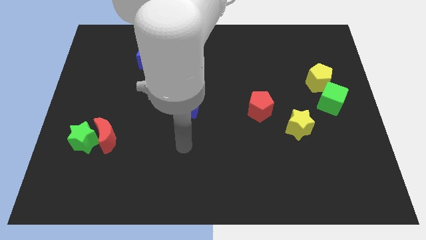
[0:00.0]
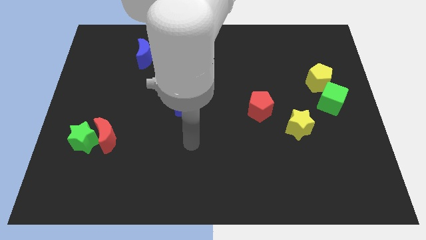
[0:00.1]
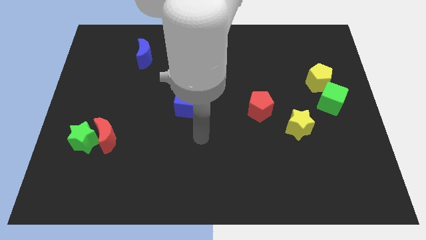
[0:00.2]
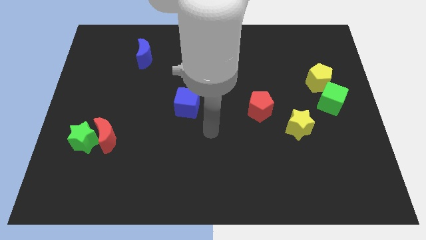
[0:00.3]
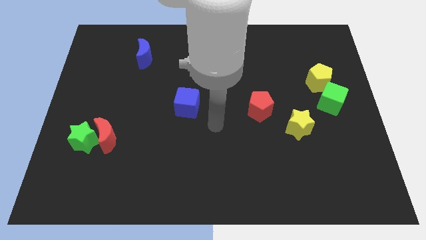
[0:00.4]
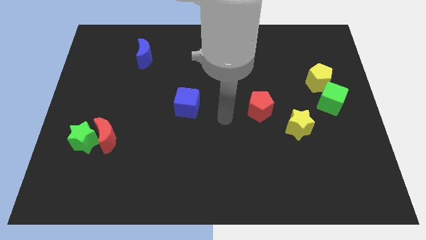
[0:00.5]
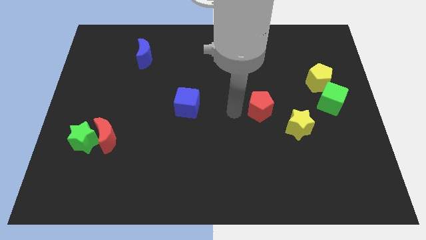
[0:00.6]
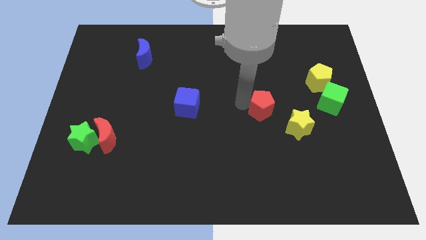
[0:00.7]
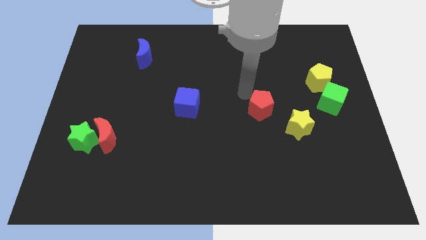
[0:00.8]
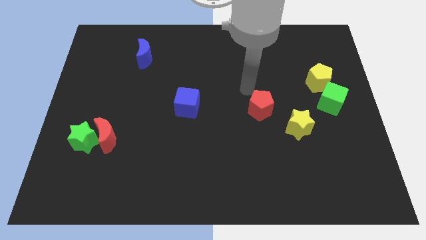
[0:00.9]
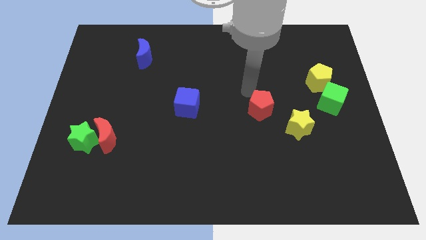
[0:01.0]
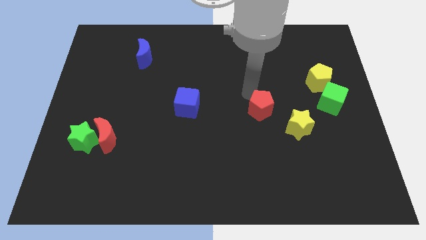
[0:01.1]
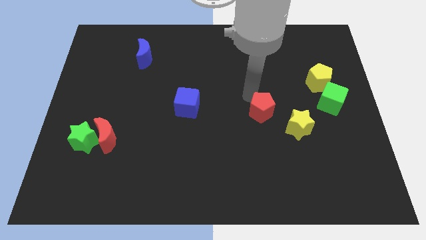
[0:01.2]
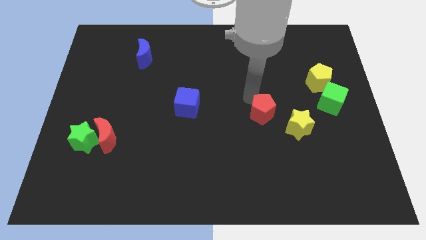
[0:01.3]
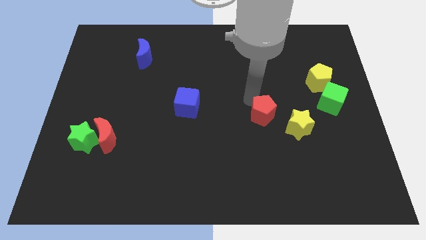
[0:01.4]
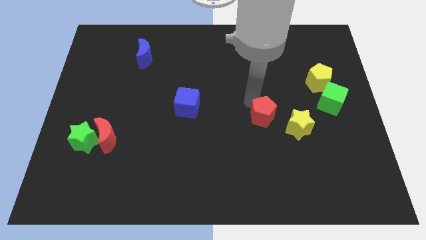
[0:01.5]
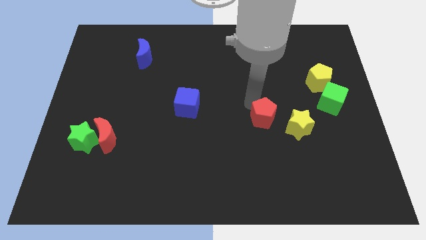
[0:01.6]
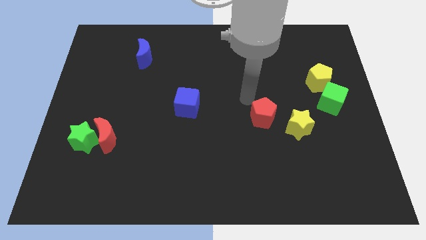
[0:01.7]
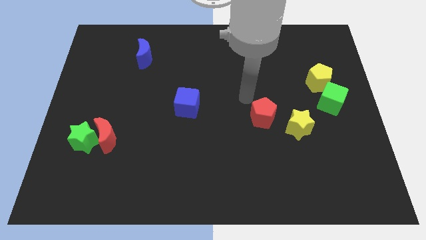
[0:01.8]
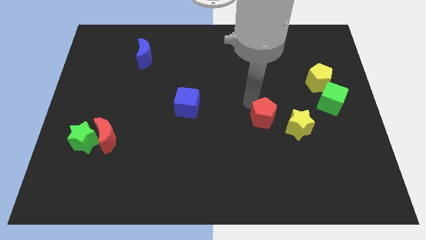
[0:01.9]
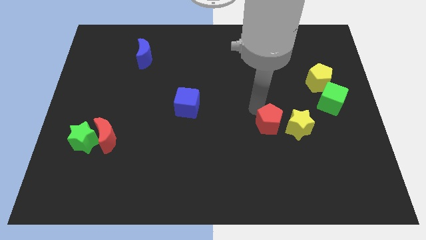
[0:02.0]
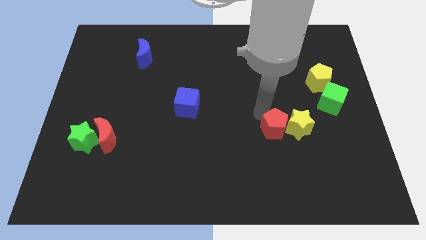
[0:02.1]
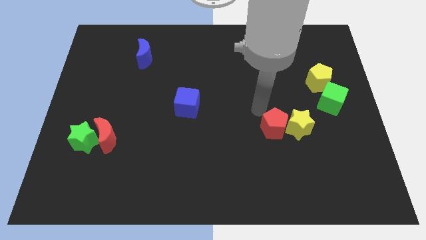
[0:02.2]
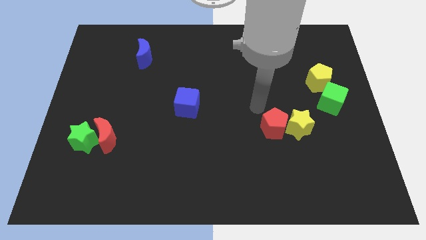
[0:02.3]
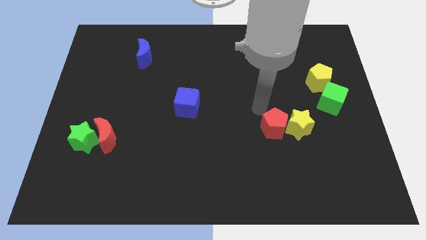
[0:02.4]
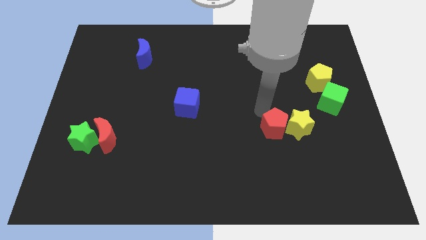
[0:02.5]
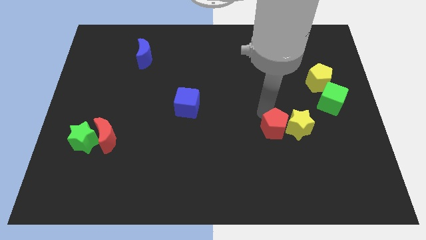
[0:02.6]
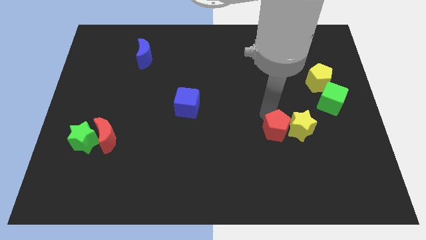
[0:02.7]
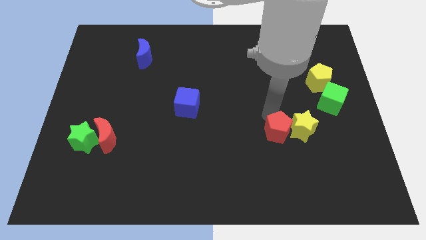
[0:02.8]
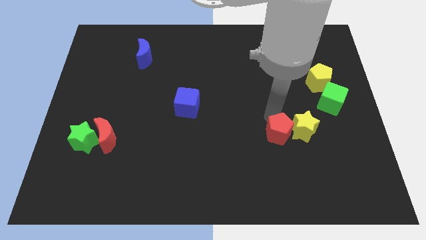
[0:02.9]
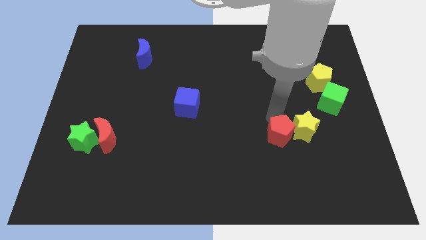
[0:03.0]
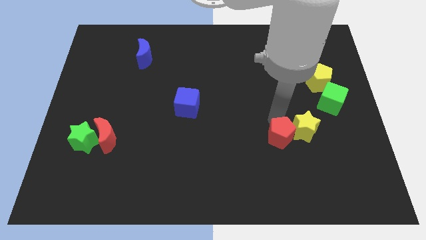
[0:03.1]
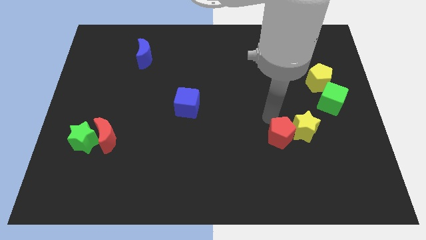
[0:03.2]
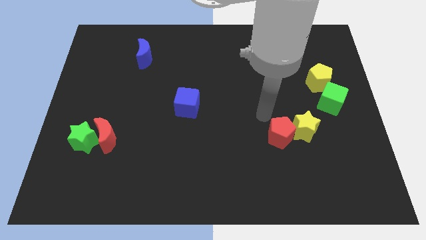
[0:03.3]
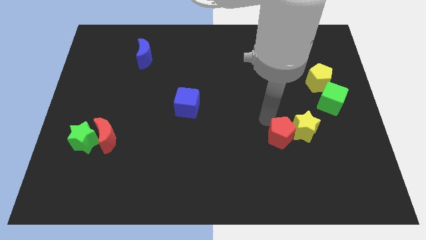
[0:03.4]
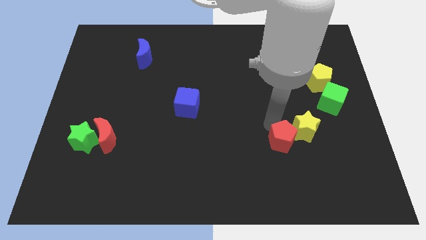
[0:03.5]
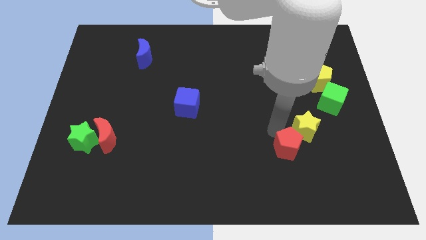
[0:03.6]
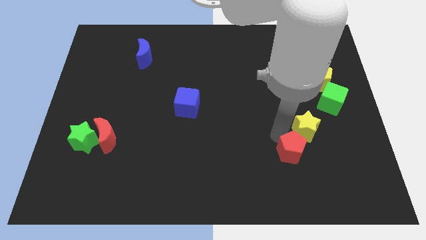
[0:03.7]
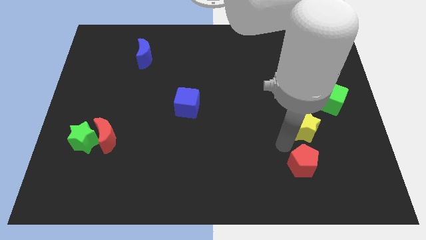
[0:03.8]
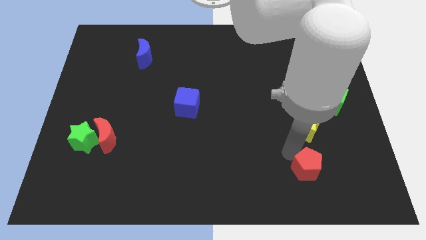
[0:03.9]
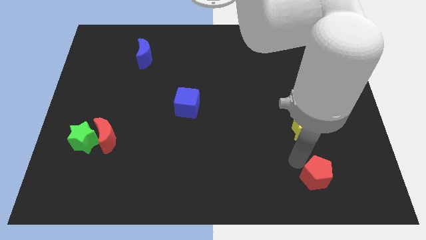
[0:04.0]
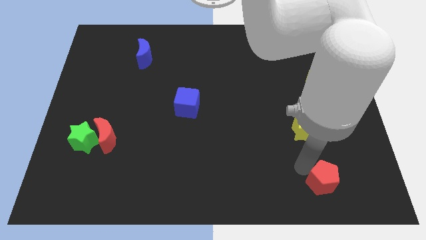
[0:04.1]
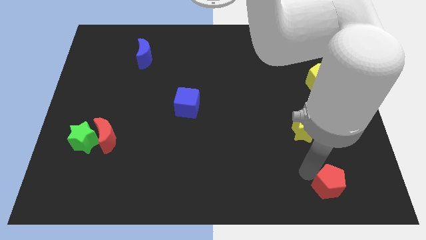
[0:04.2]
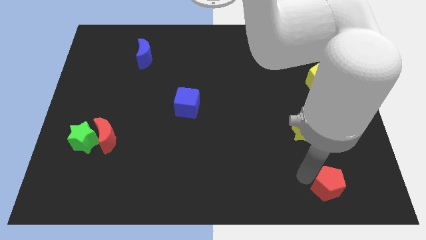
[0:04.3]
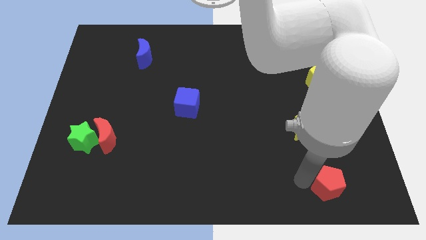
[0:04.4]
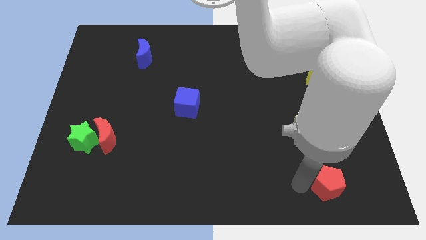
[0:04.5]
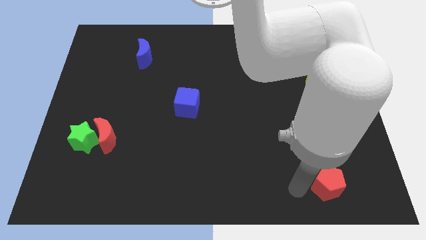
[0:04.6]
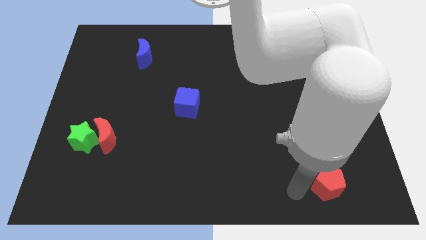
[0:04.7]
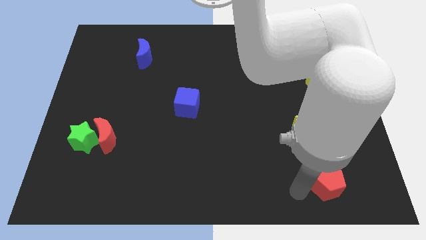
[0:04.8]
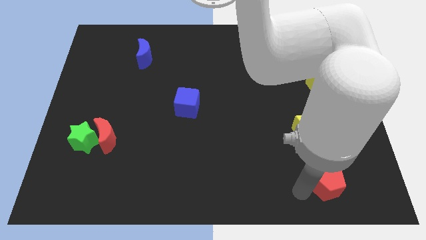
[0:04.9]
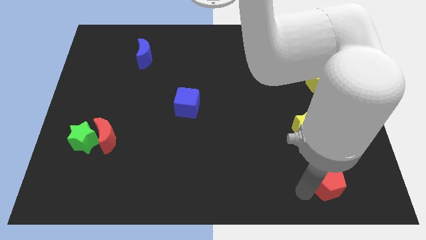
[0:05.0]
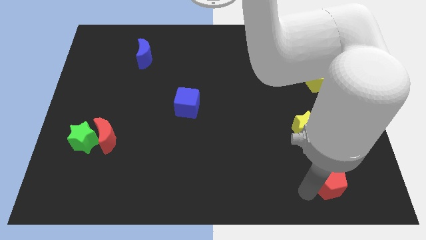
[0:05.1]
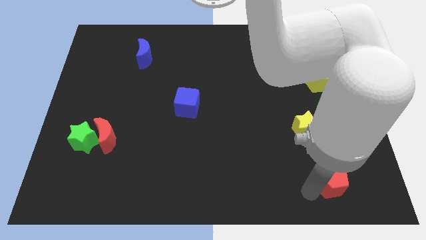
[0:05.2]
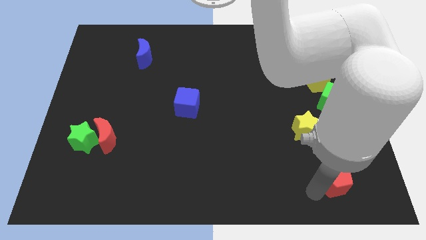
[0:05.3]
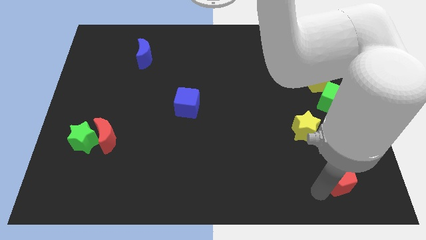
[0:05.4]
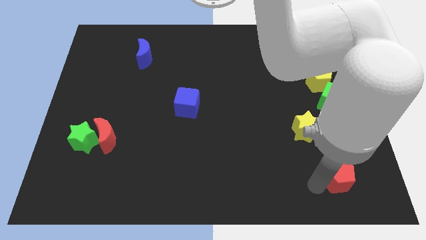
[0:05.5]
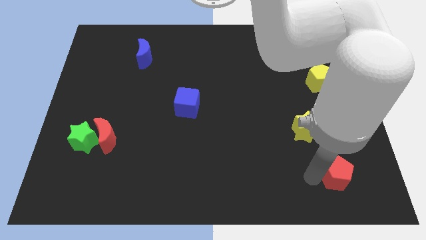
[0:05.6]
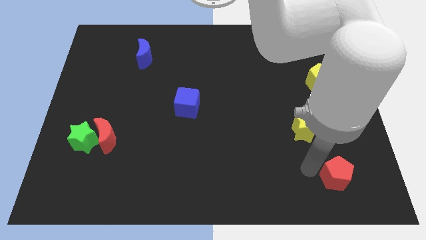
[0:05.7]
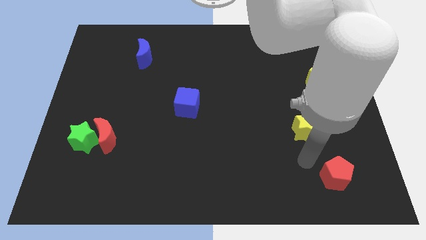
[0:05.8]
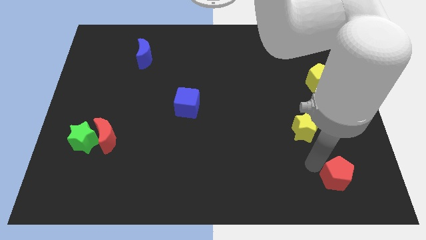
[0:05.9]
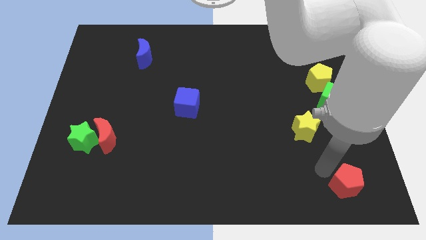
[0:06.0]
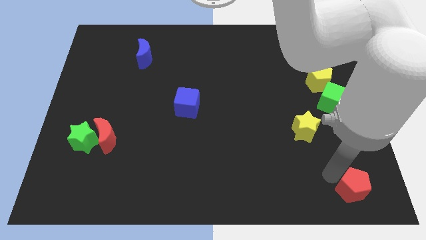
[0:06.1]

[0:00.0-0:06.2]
push the red pentagon to the bottom right of the board

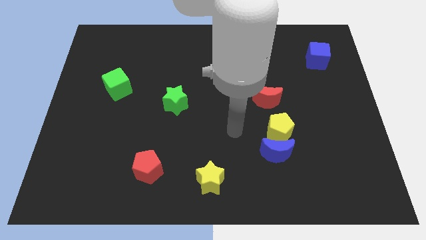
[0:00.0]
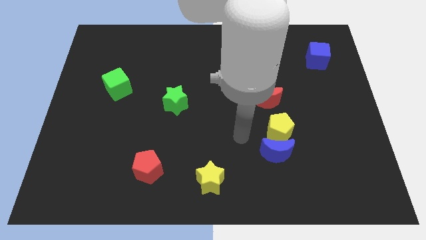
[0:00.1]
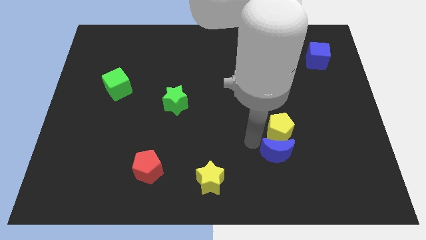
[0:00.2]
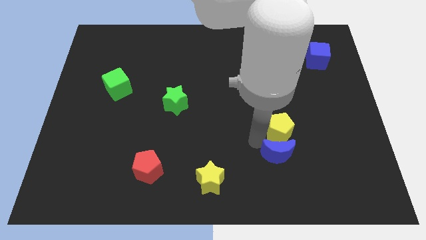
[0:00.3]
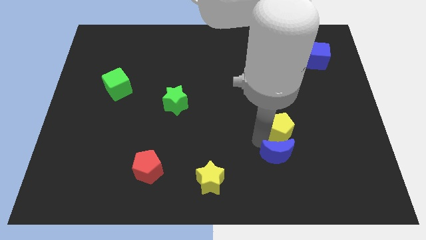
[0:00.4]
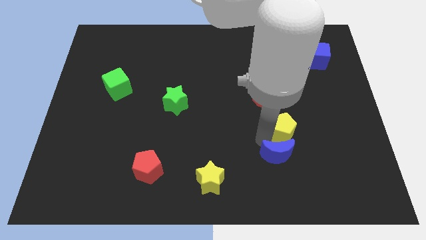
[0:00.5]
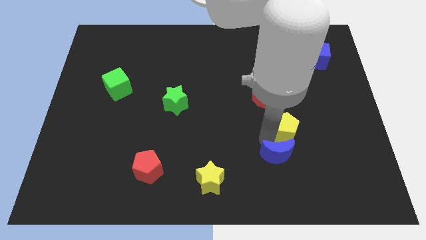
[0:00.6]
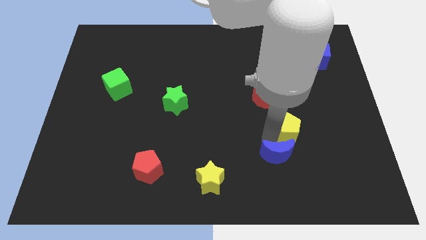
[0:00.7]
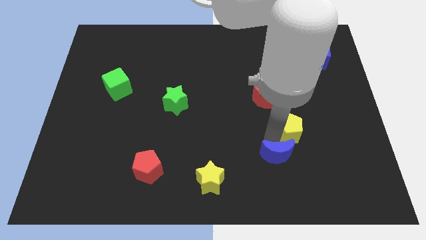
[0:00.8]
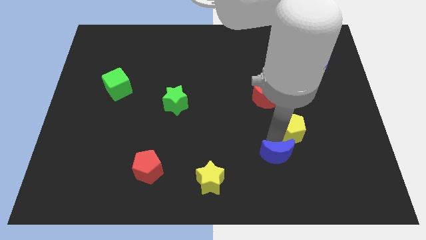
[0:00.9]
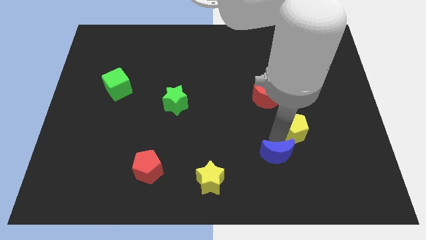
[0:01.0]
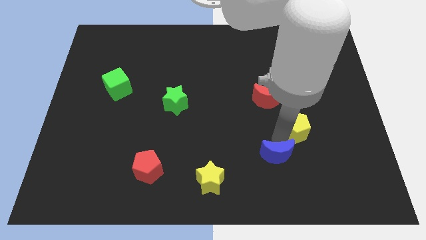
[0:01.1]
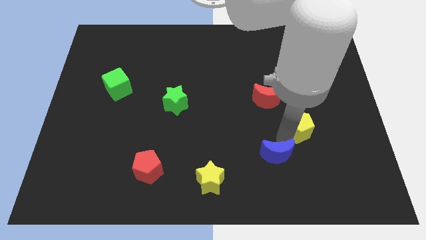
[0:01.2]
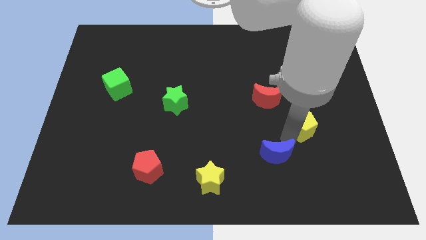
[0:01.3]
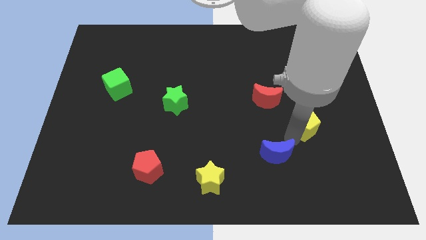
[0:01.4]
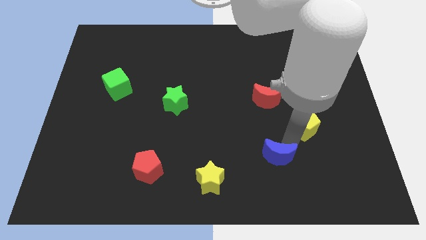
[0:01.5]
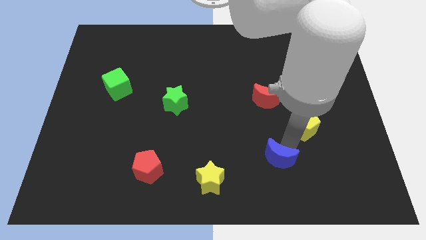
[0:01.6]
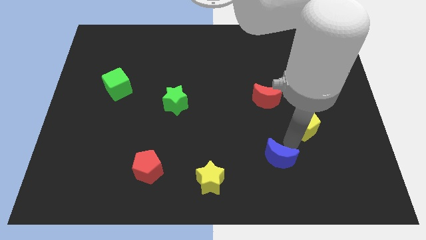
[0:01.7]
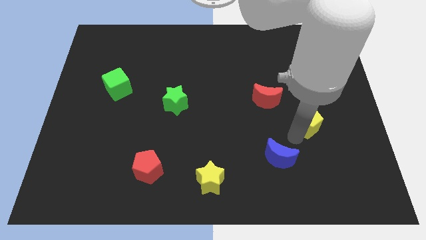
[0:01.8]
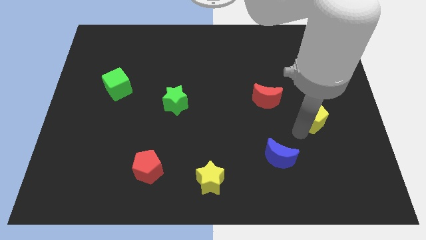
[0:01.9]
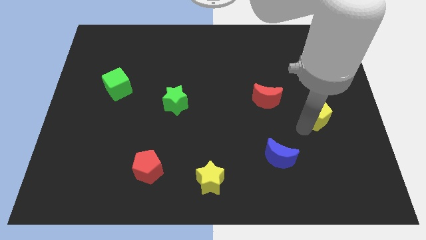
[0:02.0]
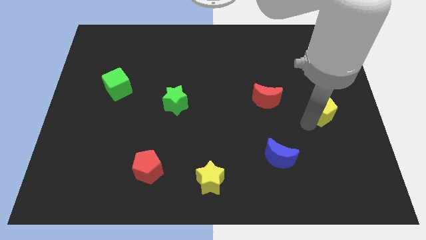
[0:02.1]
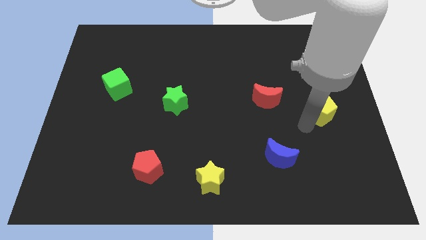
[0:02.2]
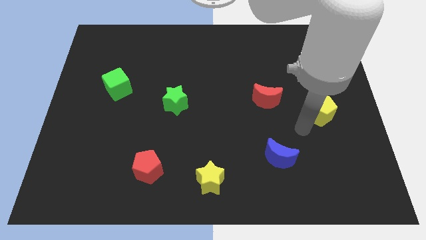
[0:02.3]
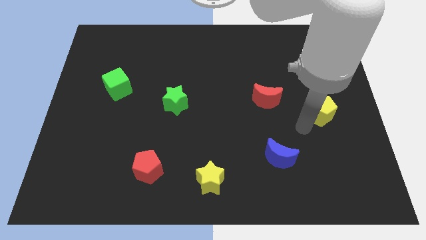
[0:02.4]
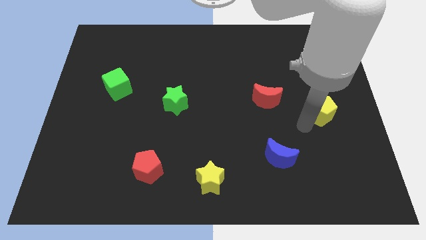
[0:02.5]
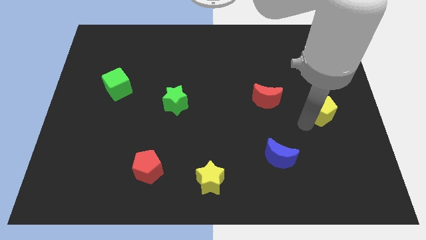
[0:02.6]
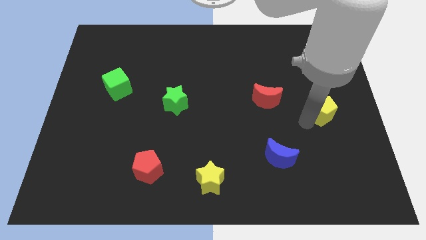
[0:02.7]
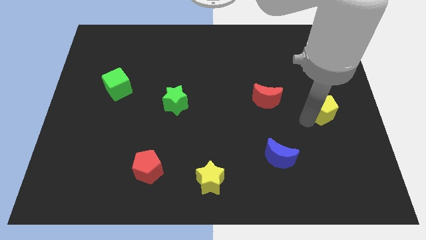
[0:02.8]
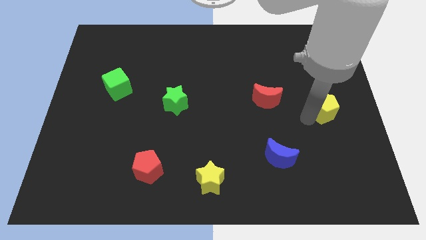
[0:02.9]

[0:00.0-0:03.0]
put the yellow pentagon to the right side of the board
